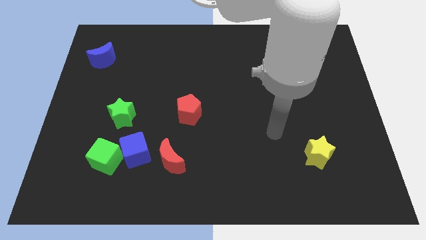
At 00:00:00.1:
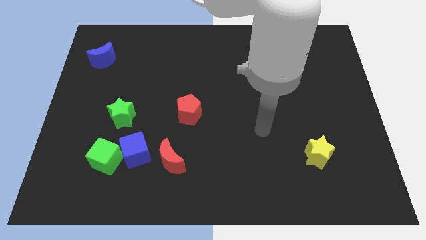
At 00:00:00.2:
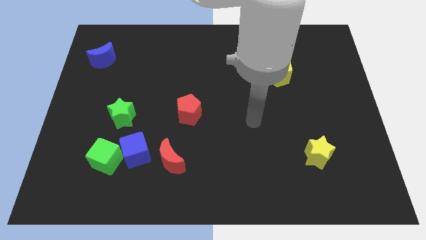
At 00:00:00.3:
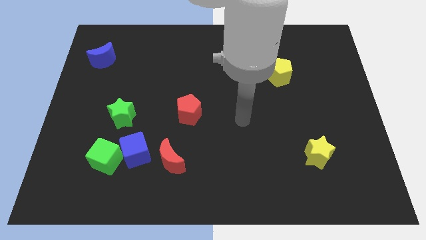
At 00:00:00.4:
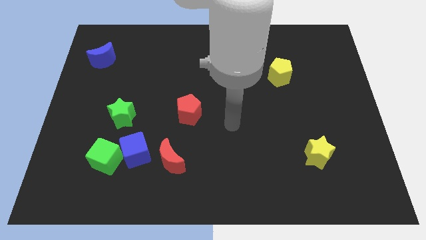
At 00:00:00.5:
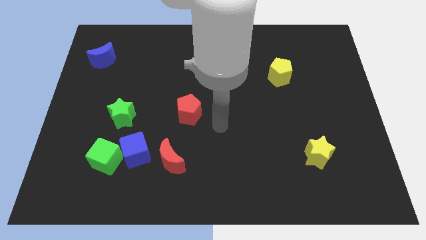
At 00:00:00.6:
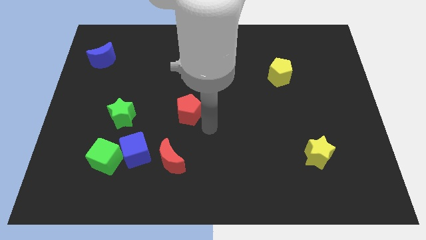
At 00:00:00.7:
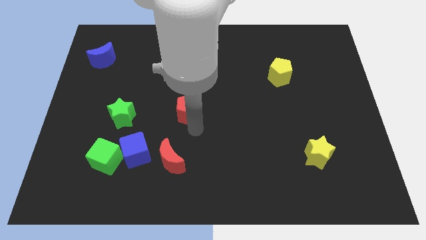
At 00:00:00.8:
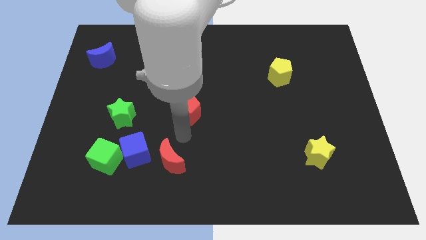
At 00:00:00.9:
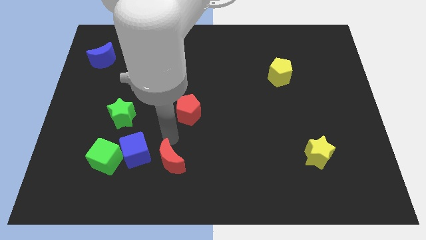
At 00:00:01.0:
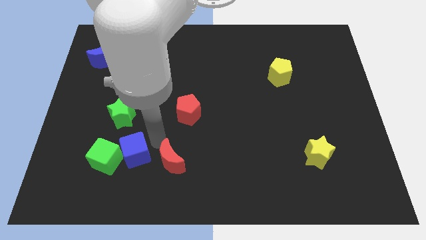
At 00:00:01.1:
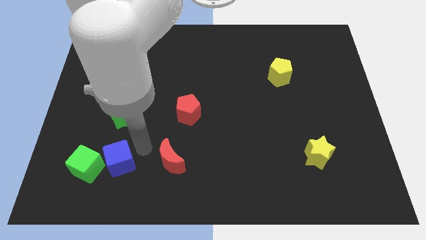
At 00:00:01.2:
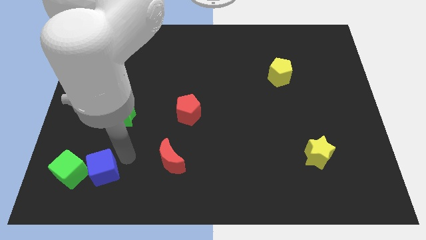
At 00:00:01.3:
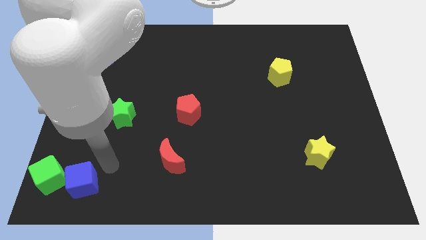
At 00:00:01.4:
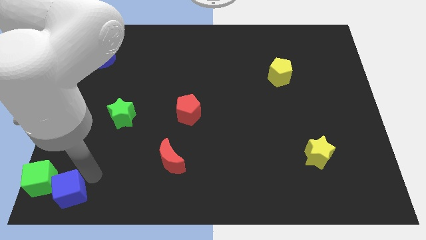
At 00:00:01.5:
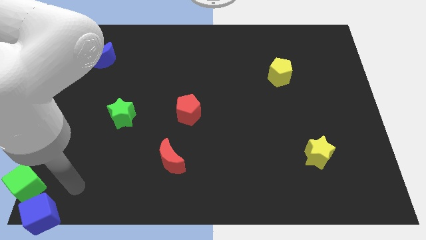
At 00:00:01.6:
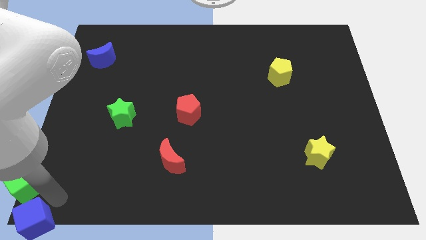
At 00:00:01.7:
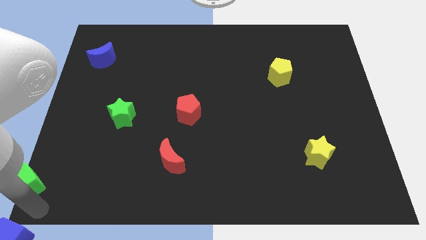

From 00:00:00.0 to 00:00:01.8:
separate the green cube from the blue cube

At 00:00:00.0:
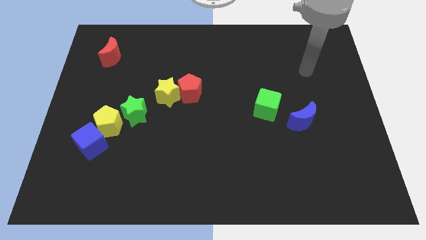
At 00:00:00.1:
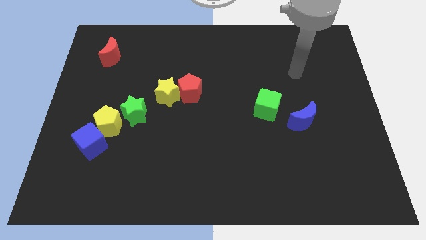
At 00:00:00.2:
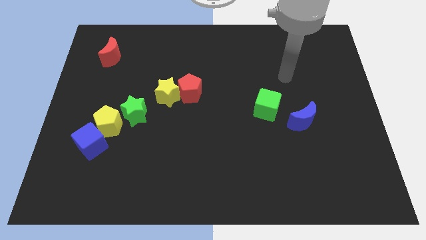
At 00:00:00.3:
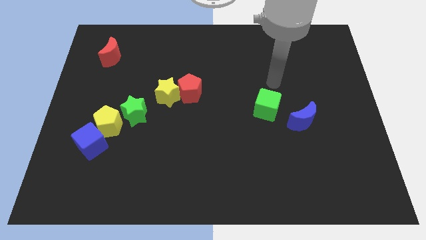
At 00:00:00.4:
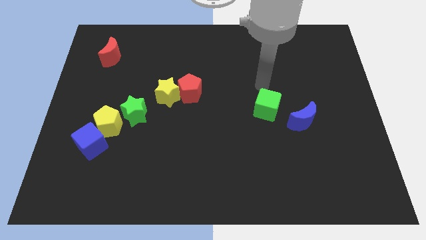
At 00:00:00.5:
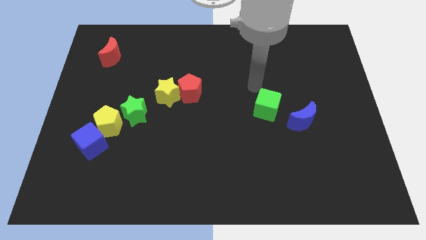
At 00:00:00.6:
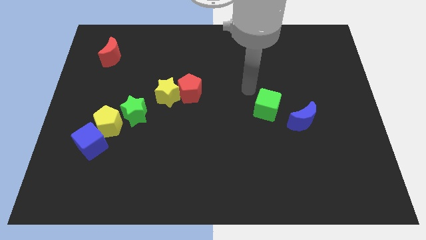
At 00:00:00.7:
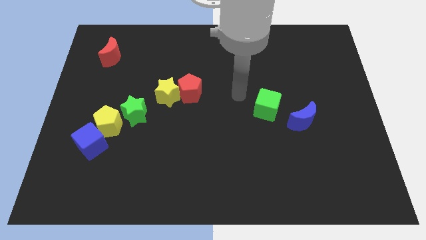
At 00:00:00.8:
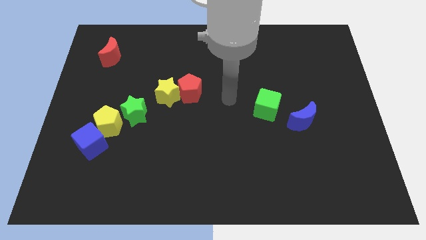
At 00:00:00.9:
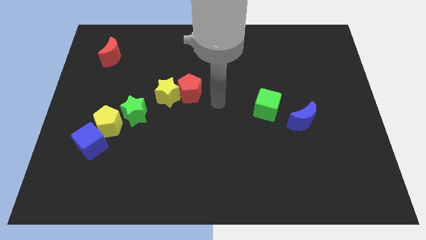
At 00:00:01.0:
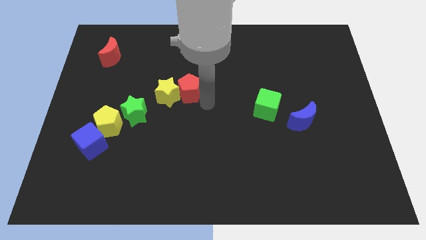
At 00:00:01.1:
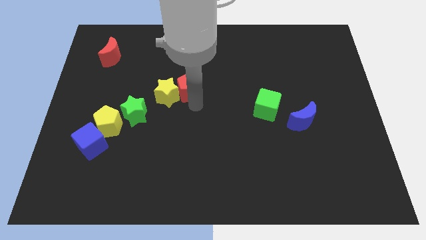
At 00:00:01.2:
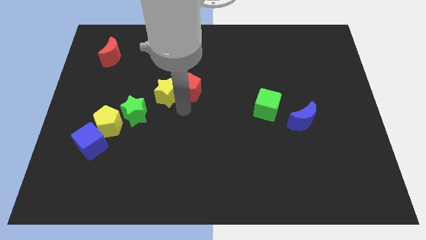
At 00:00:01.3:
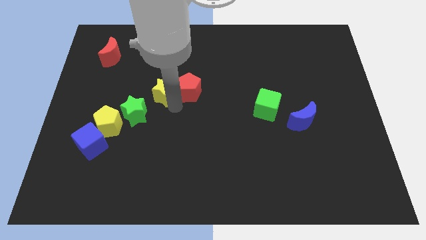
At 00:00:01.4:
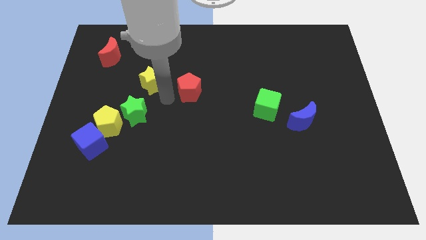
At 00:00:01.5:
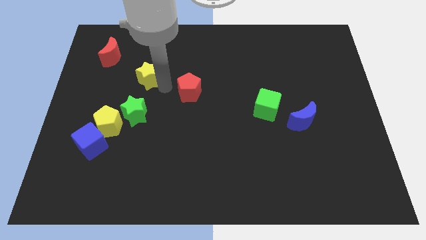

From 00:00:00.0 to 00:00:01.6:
pull the red pentagon apart from the yellow star

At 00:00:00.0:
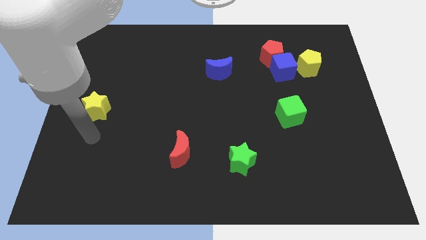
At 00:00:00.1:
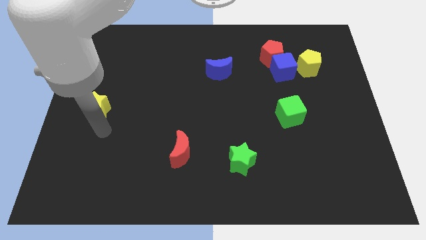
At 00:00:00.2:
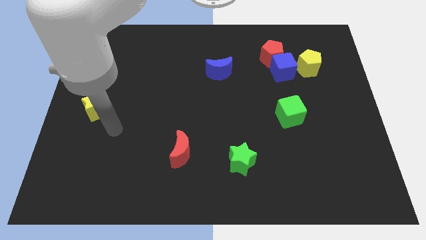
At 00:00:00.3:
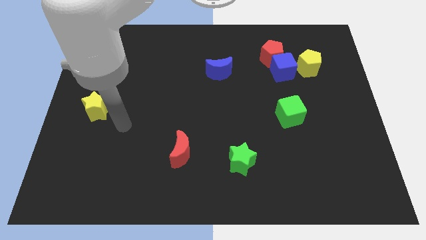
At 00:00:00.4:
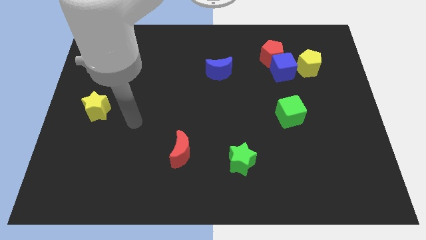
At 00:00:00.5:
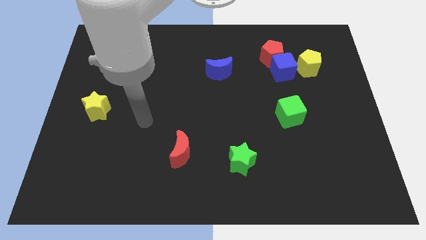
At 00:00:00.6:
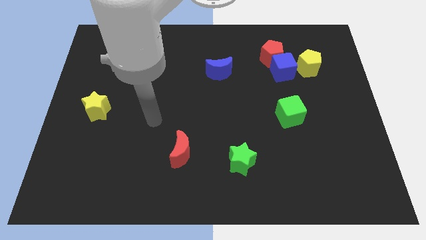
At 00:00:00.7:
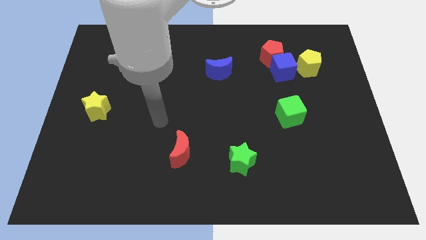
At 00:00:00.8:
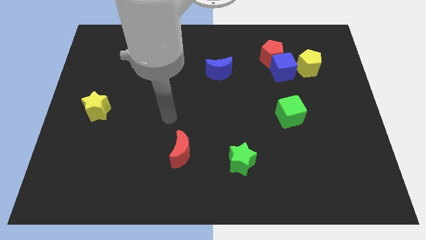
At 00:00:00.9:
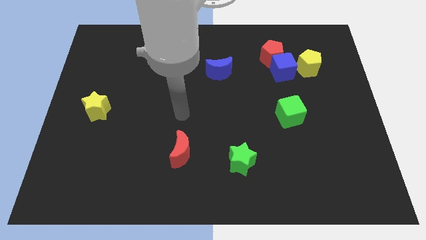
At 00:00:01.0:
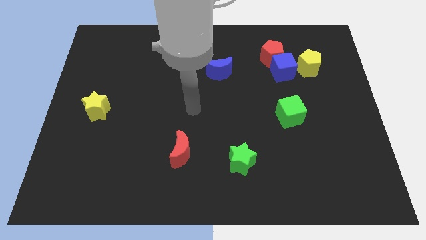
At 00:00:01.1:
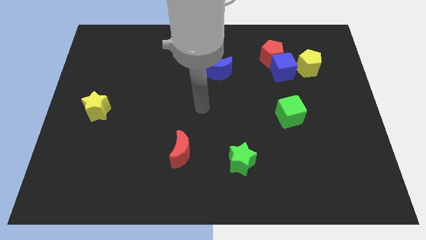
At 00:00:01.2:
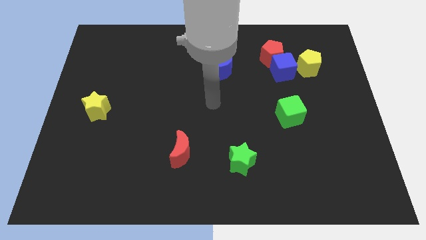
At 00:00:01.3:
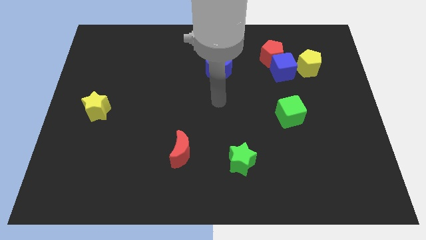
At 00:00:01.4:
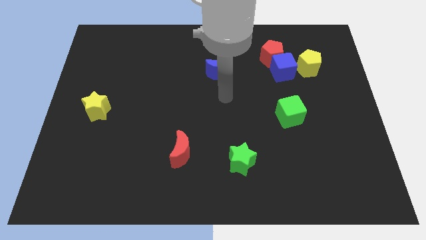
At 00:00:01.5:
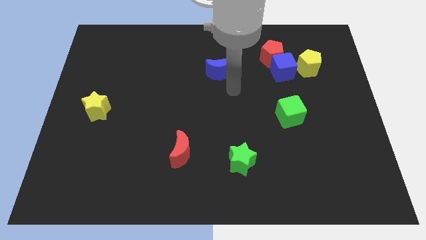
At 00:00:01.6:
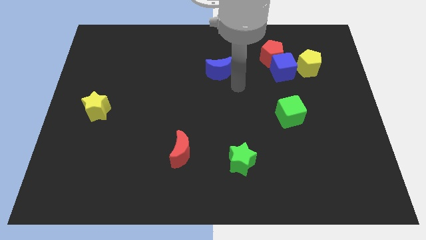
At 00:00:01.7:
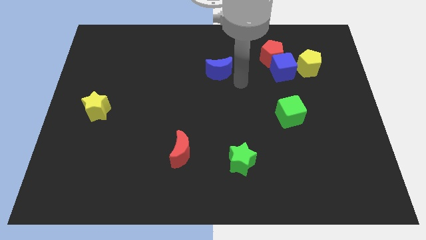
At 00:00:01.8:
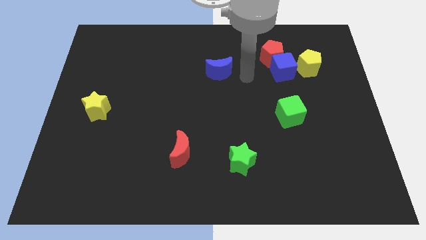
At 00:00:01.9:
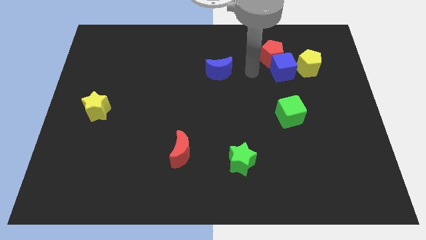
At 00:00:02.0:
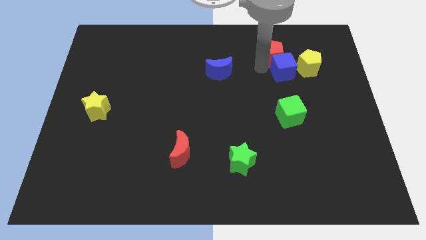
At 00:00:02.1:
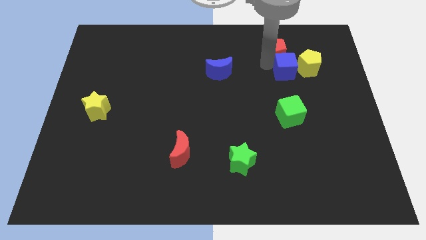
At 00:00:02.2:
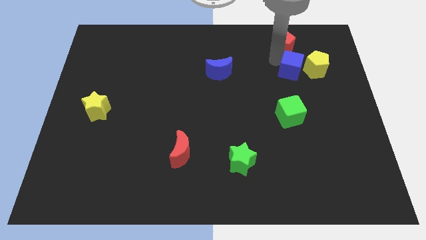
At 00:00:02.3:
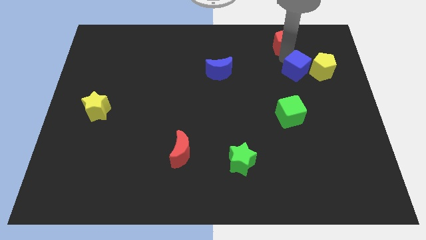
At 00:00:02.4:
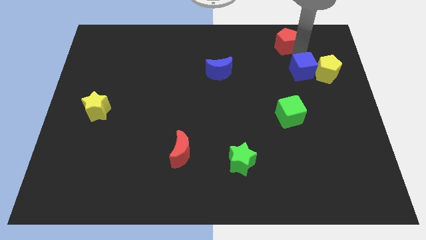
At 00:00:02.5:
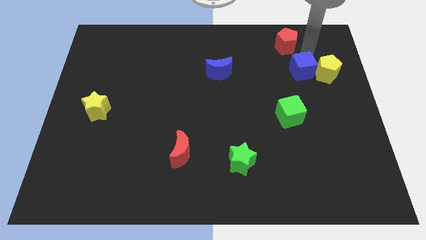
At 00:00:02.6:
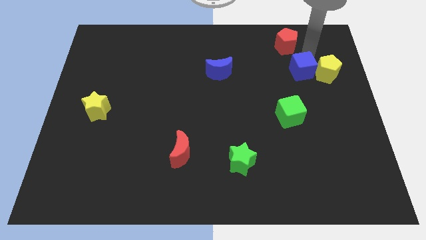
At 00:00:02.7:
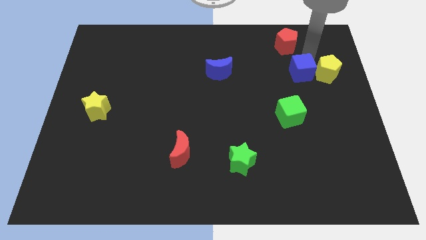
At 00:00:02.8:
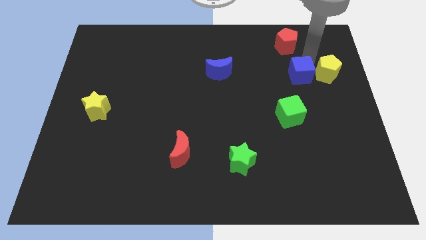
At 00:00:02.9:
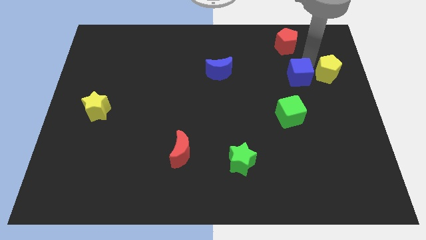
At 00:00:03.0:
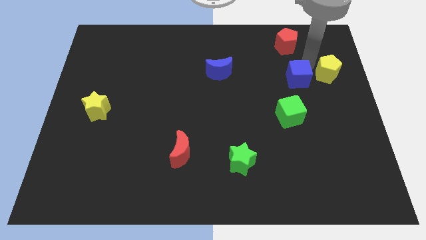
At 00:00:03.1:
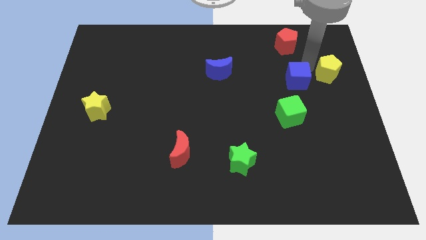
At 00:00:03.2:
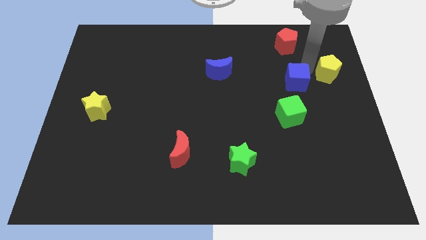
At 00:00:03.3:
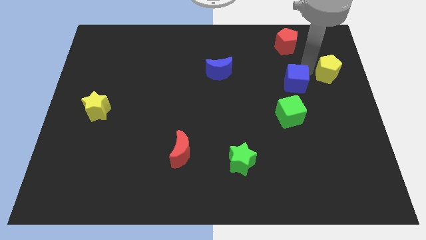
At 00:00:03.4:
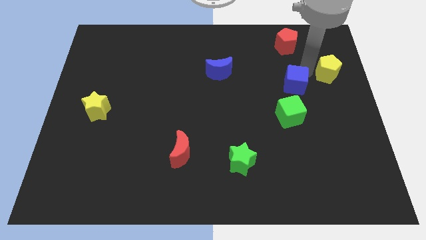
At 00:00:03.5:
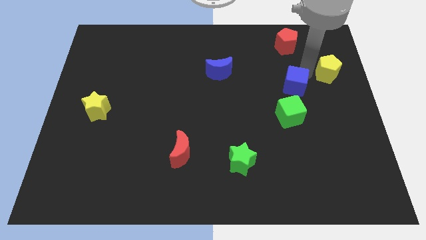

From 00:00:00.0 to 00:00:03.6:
pull the blue cube apart from the red pentagon and yellow pentagon

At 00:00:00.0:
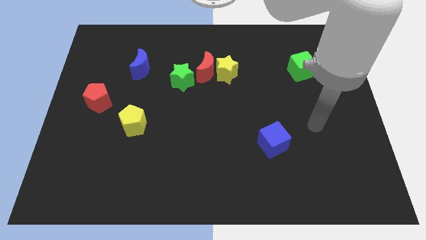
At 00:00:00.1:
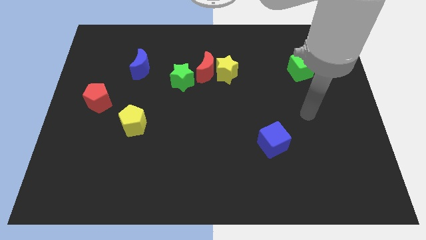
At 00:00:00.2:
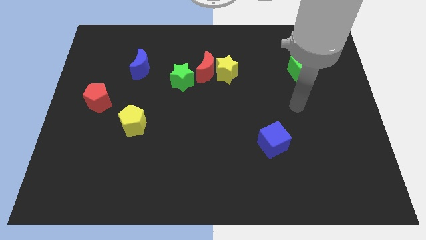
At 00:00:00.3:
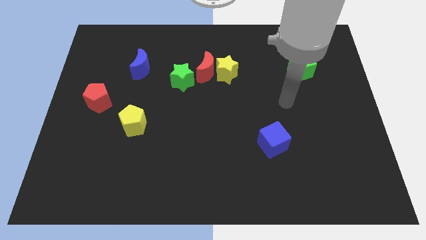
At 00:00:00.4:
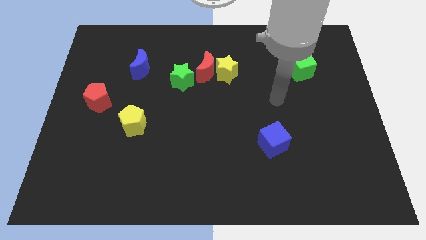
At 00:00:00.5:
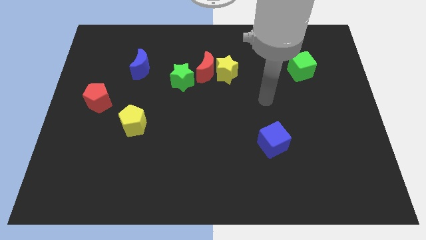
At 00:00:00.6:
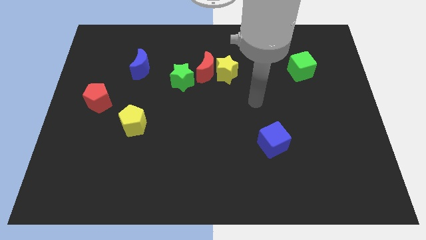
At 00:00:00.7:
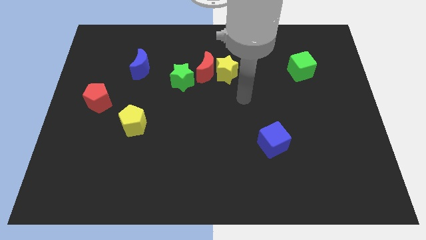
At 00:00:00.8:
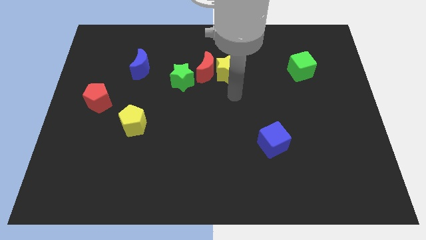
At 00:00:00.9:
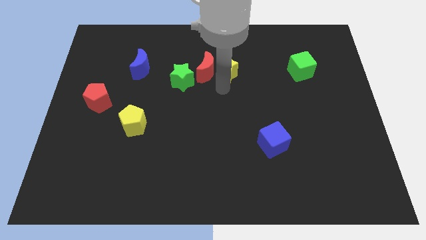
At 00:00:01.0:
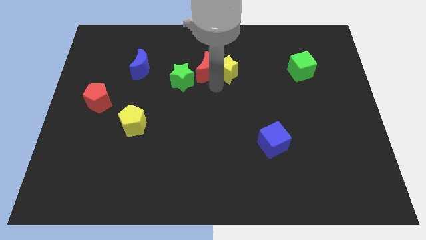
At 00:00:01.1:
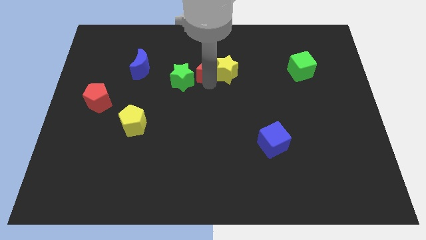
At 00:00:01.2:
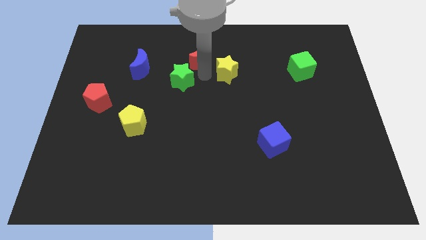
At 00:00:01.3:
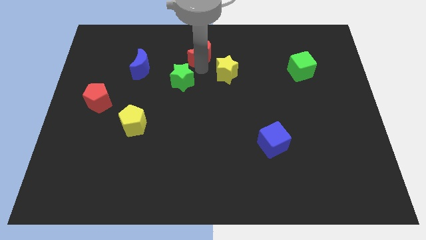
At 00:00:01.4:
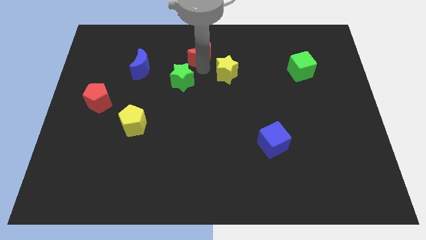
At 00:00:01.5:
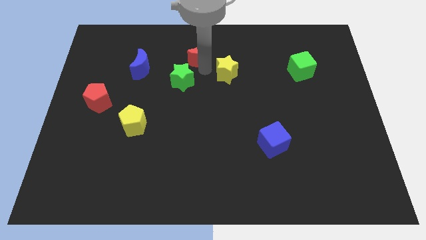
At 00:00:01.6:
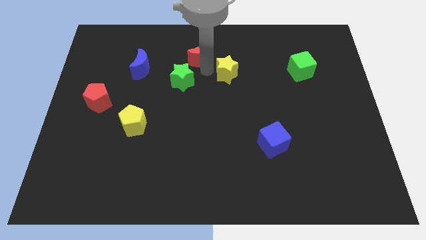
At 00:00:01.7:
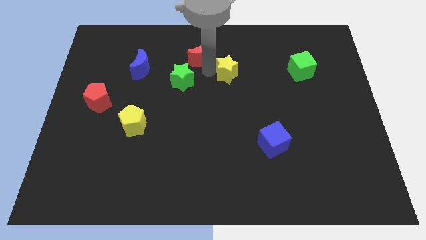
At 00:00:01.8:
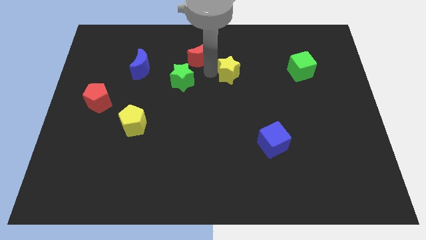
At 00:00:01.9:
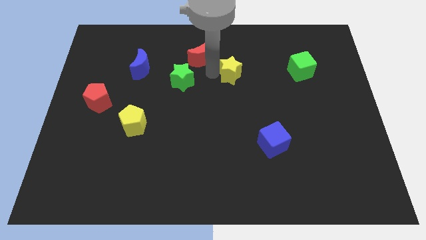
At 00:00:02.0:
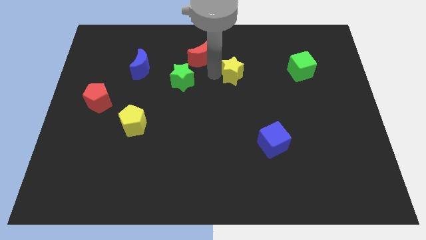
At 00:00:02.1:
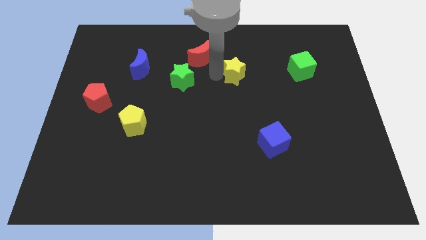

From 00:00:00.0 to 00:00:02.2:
separate the yellow star from the red moon
